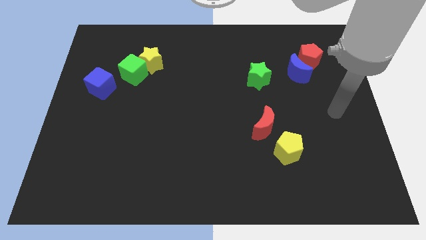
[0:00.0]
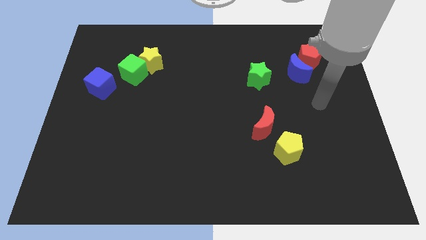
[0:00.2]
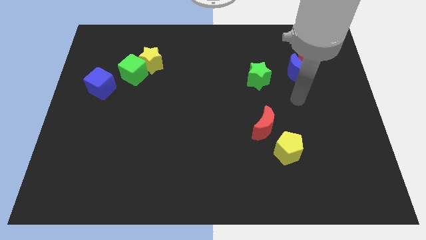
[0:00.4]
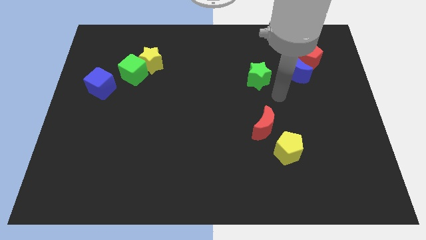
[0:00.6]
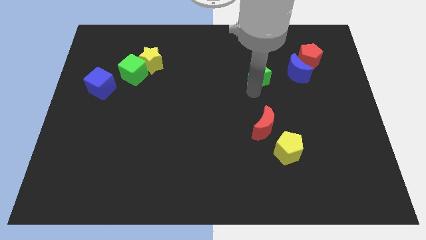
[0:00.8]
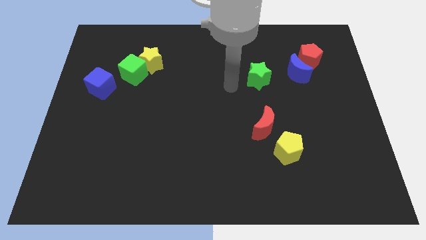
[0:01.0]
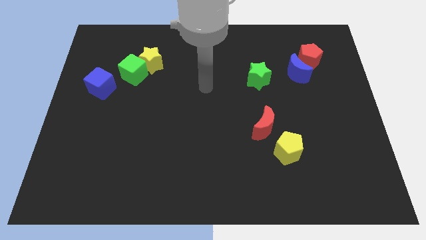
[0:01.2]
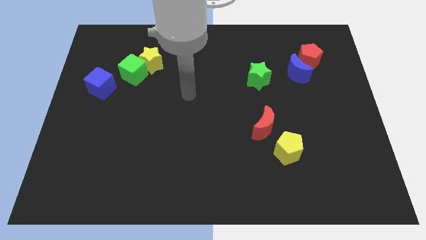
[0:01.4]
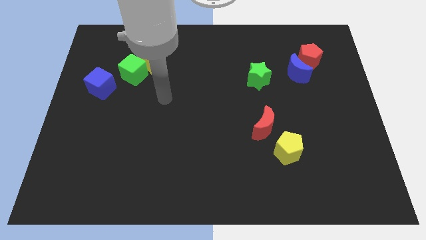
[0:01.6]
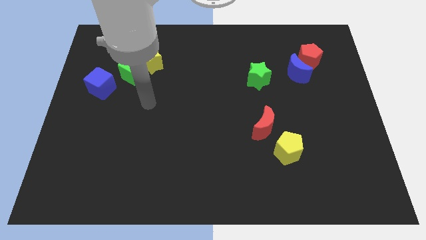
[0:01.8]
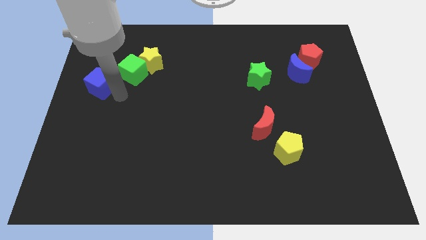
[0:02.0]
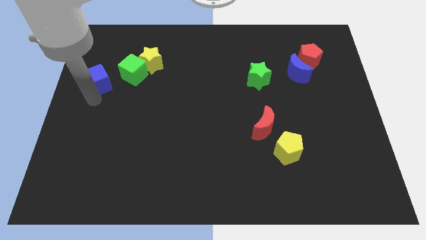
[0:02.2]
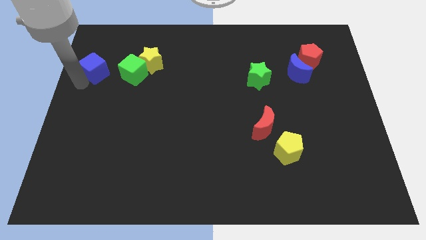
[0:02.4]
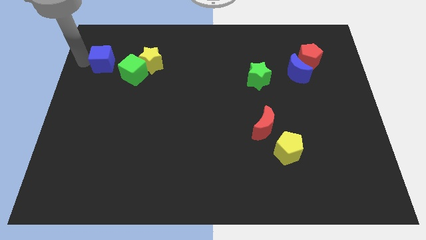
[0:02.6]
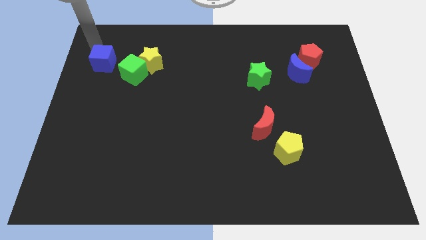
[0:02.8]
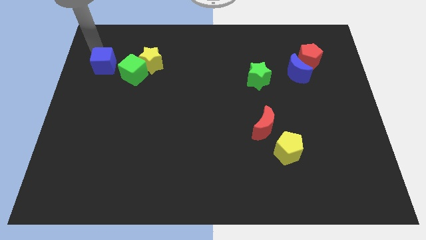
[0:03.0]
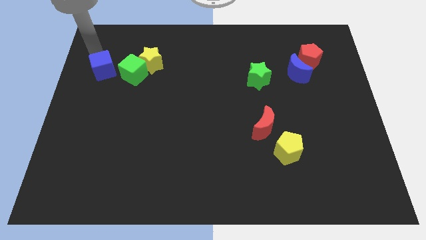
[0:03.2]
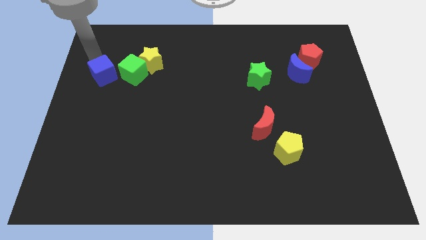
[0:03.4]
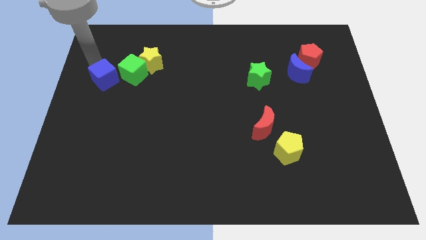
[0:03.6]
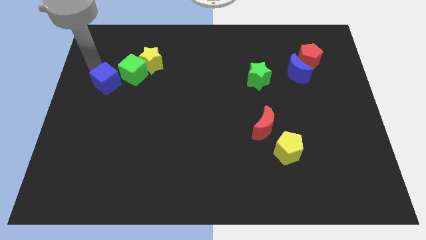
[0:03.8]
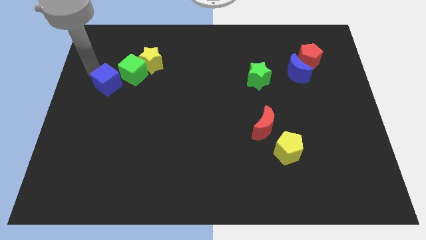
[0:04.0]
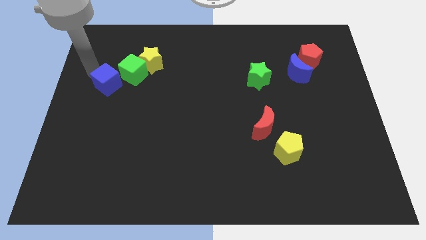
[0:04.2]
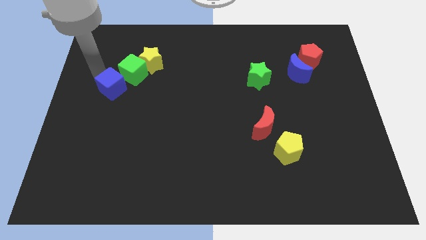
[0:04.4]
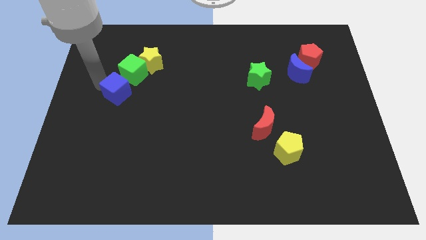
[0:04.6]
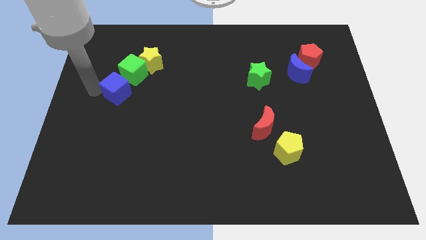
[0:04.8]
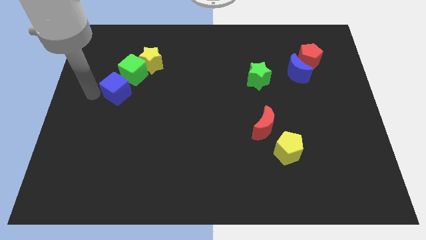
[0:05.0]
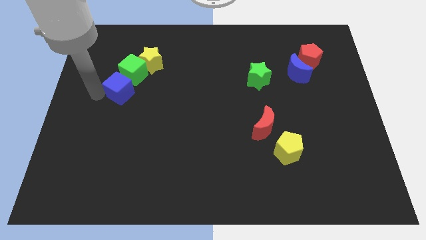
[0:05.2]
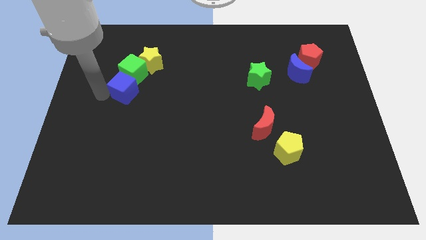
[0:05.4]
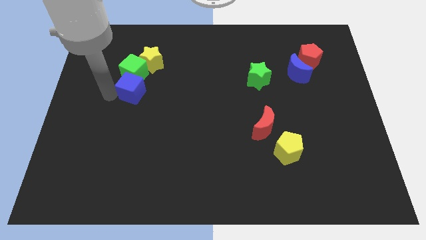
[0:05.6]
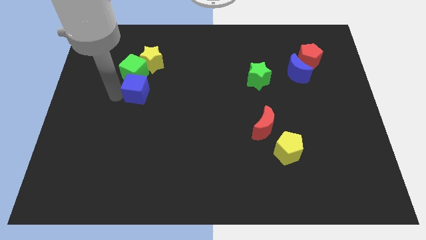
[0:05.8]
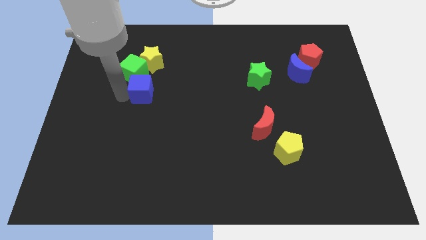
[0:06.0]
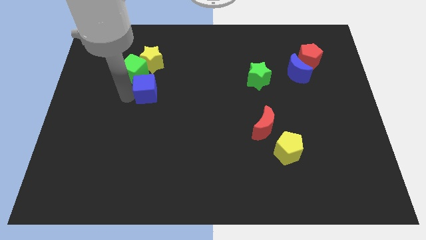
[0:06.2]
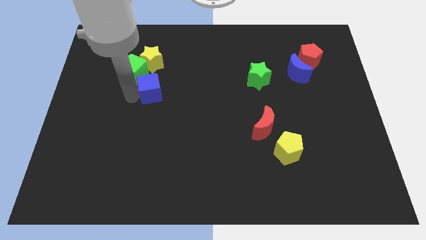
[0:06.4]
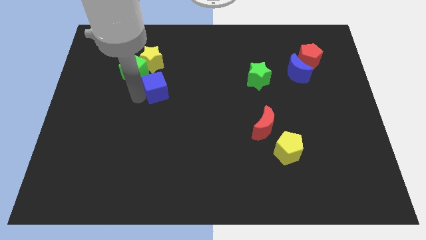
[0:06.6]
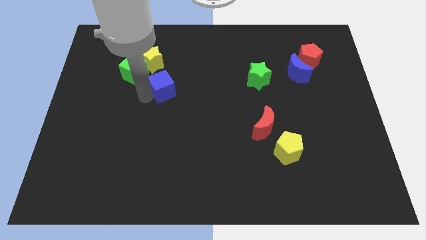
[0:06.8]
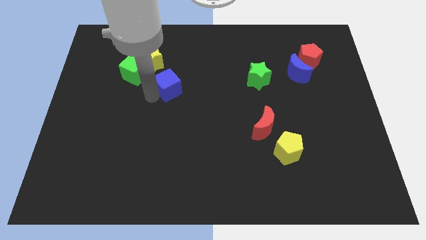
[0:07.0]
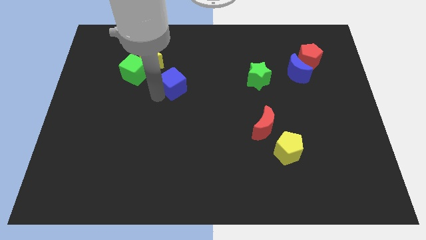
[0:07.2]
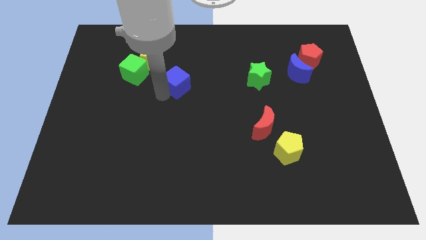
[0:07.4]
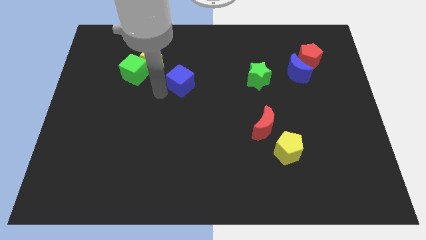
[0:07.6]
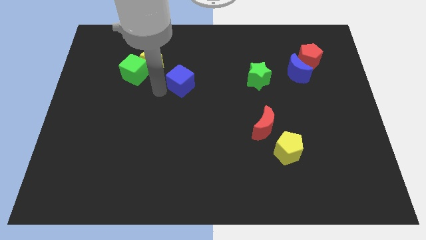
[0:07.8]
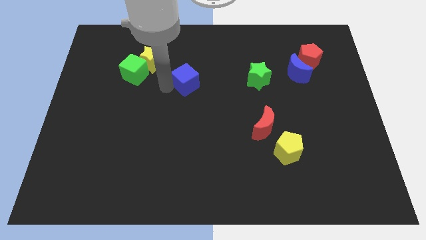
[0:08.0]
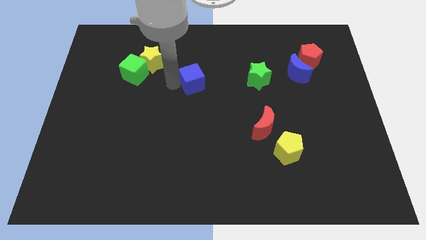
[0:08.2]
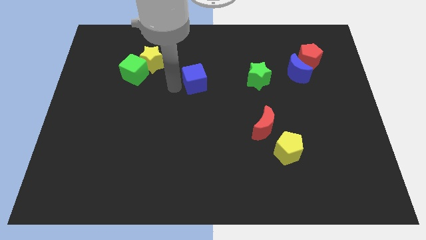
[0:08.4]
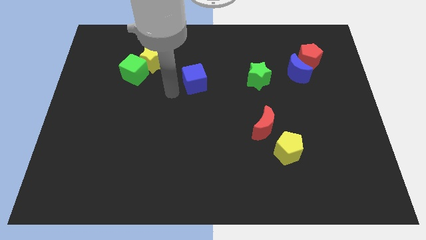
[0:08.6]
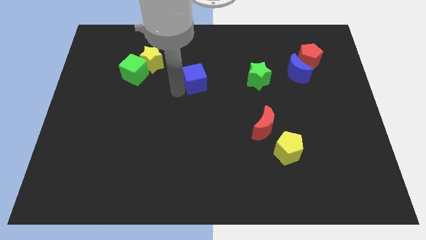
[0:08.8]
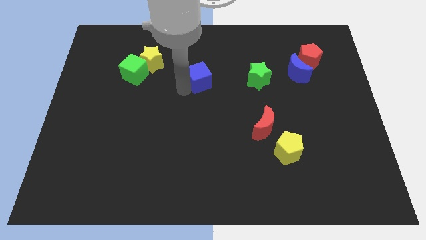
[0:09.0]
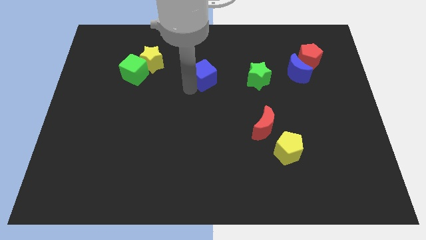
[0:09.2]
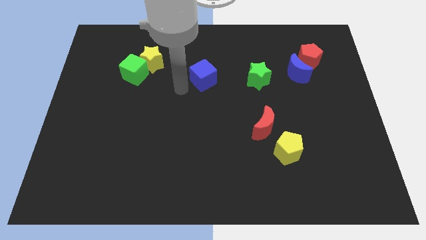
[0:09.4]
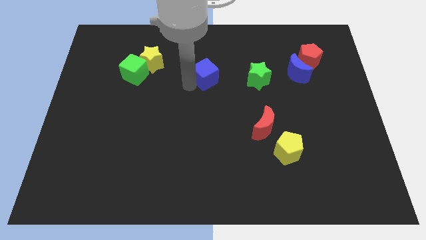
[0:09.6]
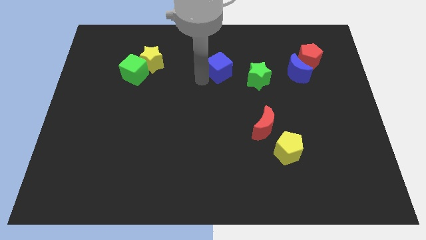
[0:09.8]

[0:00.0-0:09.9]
push the blue cube to the top left side of the green star

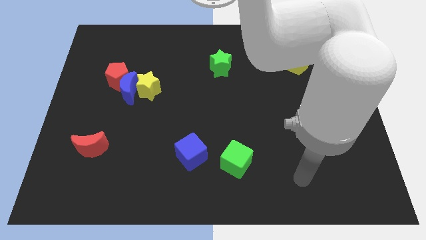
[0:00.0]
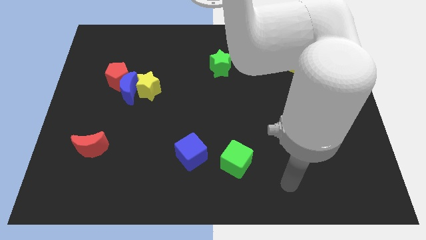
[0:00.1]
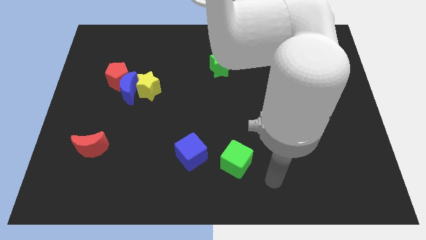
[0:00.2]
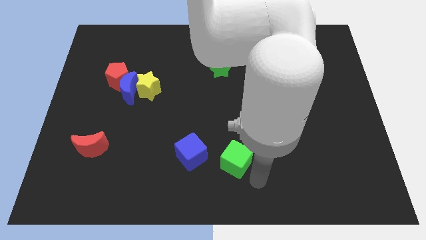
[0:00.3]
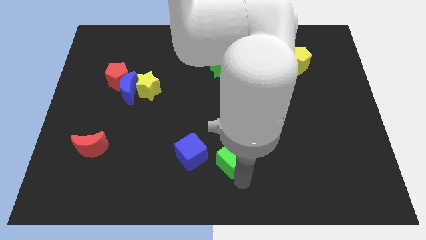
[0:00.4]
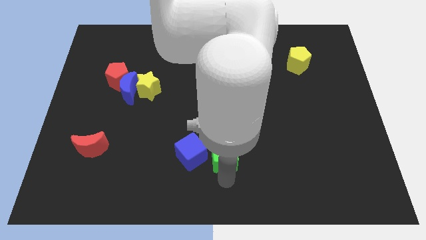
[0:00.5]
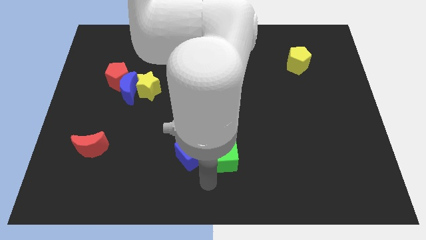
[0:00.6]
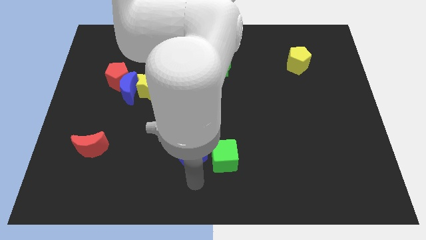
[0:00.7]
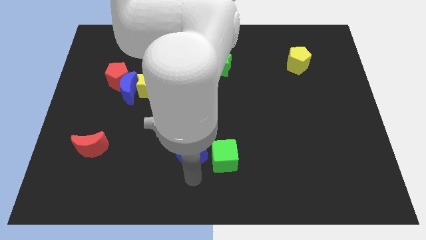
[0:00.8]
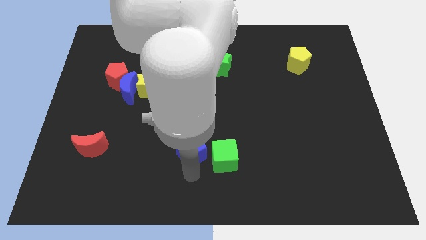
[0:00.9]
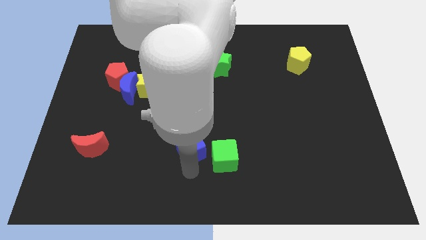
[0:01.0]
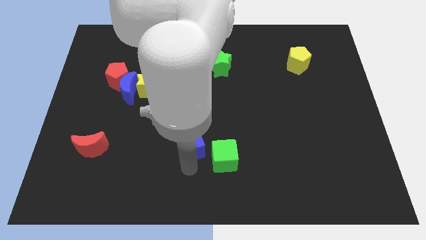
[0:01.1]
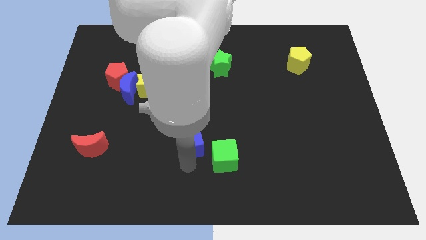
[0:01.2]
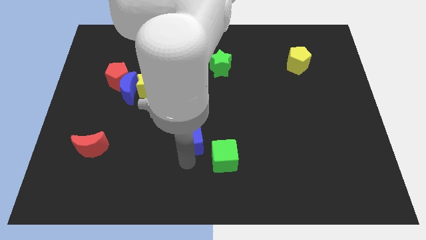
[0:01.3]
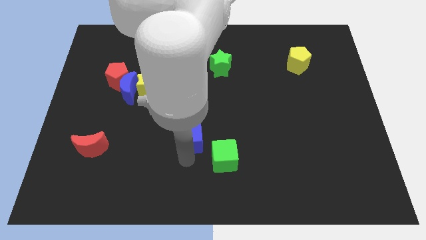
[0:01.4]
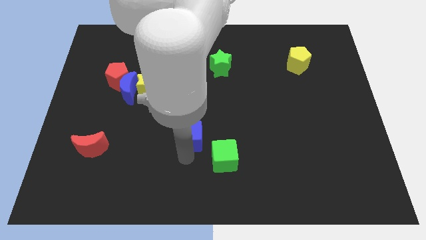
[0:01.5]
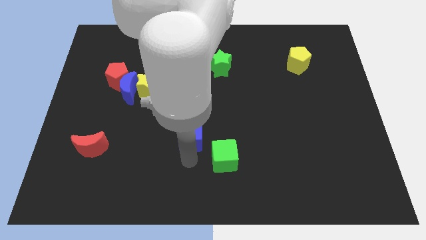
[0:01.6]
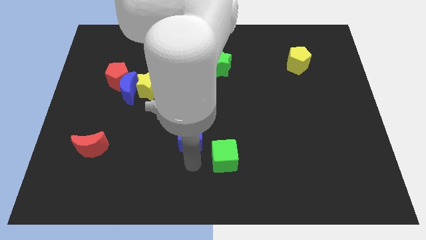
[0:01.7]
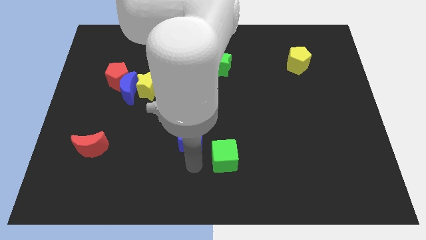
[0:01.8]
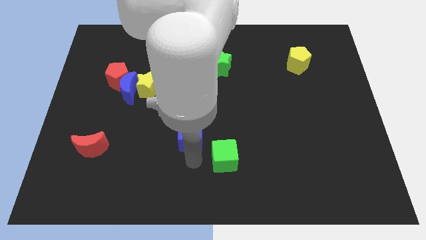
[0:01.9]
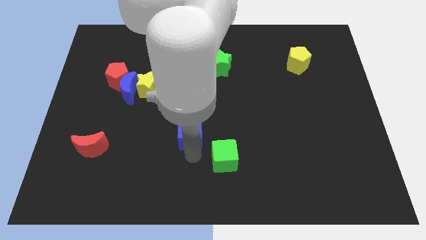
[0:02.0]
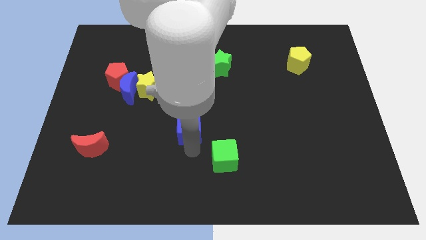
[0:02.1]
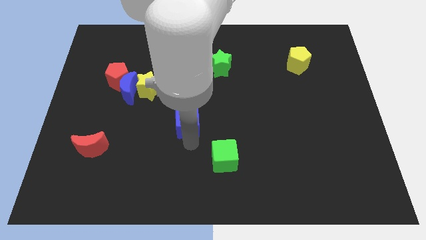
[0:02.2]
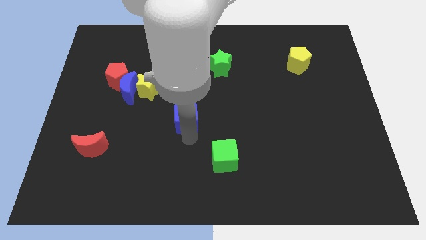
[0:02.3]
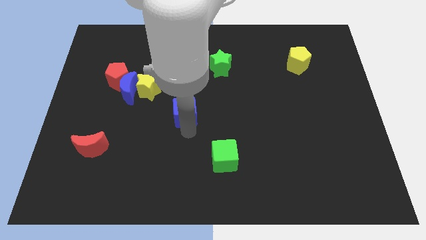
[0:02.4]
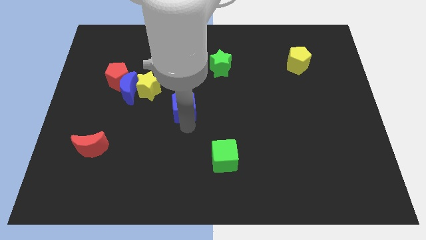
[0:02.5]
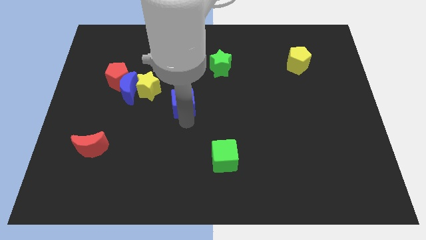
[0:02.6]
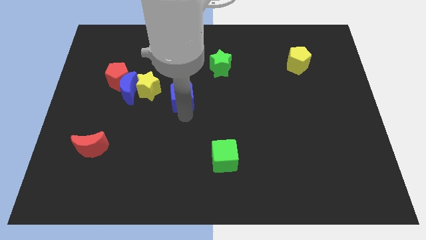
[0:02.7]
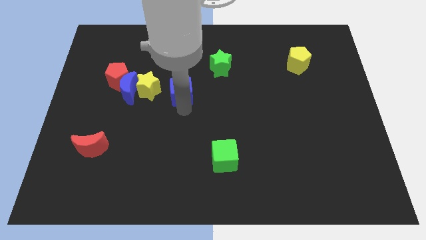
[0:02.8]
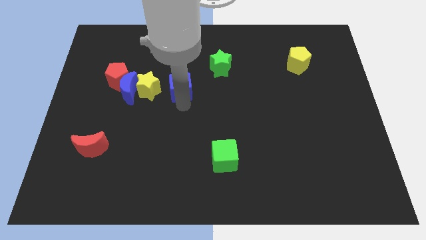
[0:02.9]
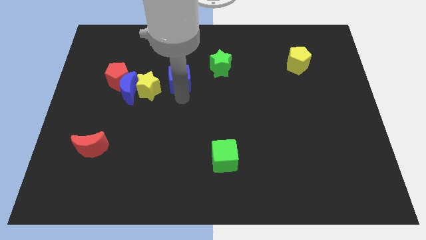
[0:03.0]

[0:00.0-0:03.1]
push the blue cube left of the green star
